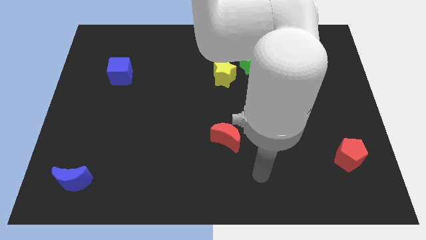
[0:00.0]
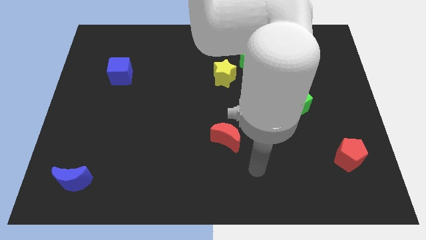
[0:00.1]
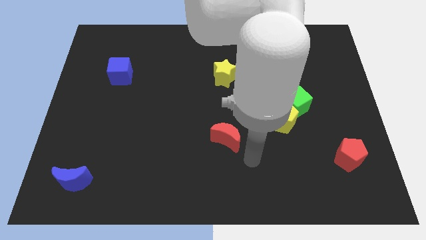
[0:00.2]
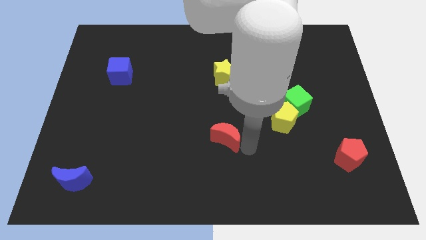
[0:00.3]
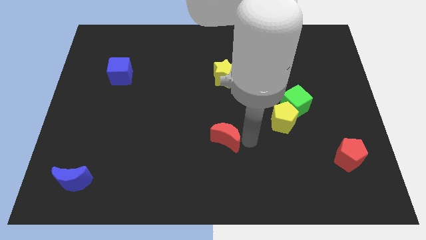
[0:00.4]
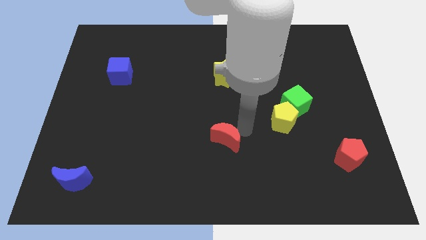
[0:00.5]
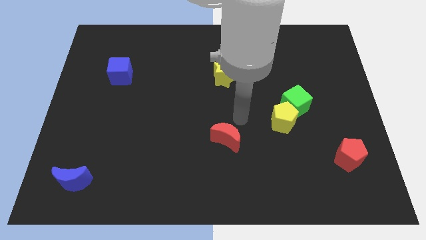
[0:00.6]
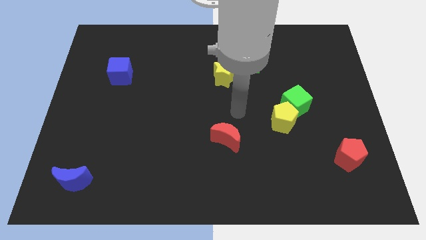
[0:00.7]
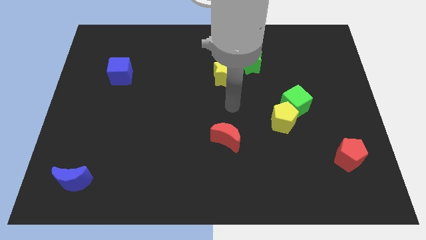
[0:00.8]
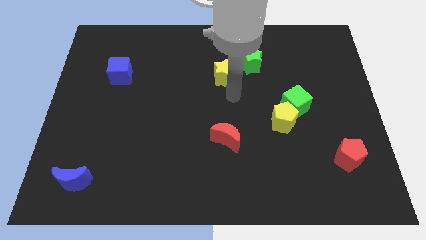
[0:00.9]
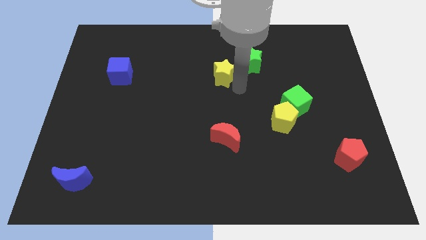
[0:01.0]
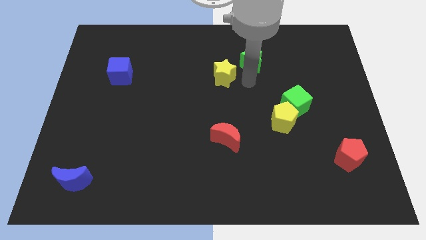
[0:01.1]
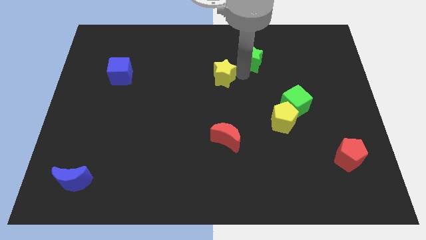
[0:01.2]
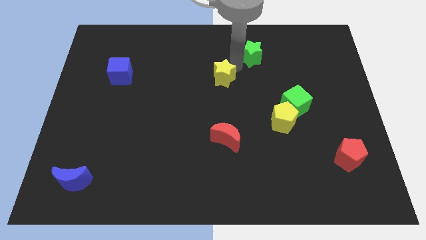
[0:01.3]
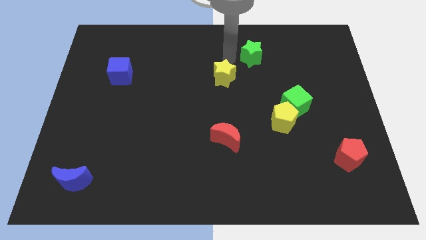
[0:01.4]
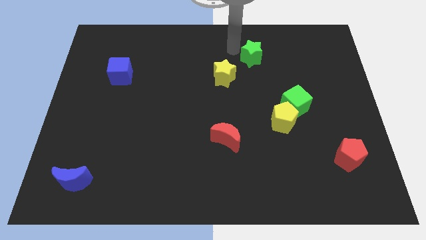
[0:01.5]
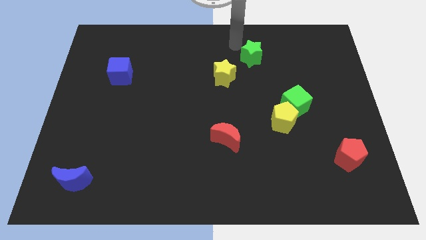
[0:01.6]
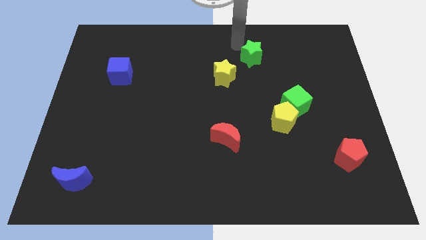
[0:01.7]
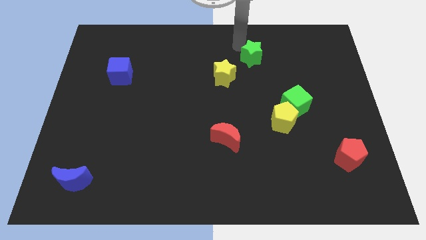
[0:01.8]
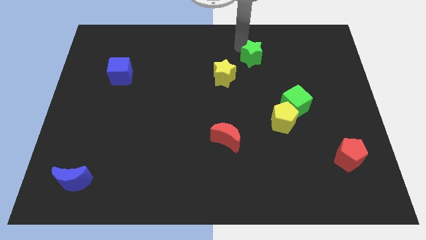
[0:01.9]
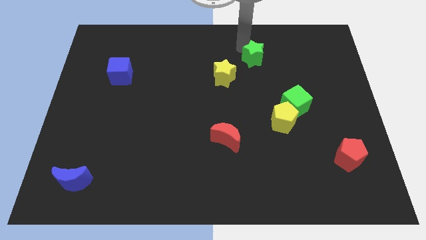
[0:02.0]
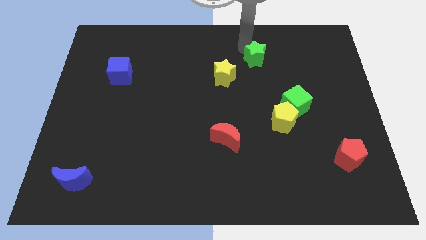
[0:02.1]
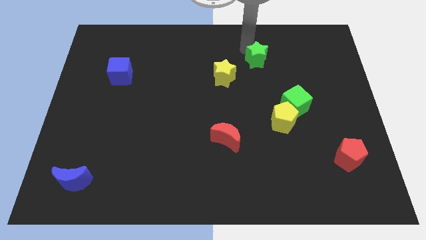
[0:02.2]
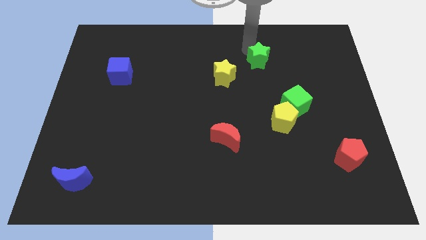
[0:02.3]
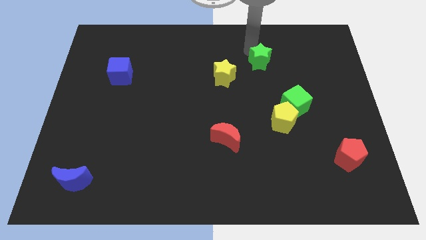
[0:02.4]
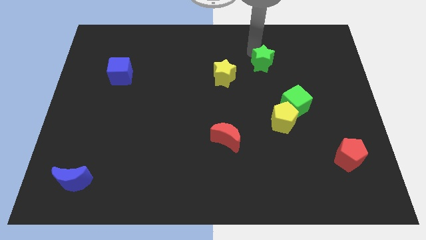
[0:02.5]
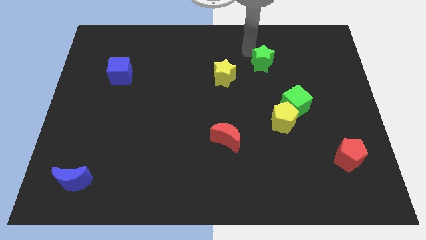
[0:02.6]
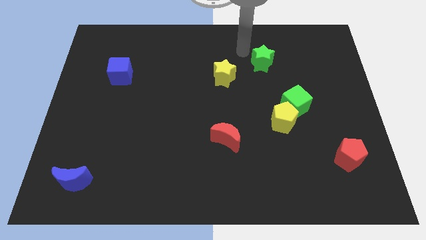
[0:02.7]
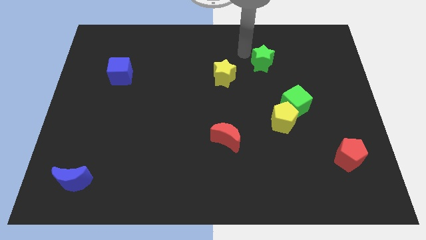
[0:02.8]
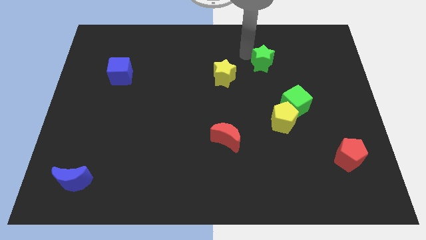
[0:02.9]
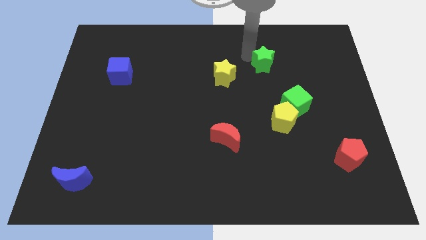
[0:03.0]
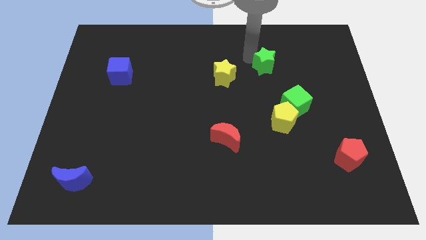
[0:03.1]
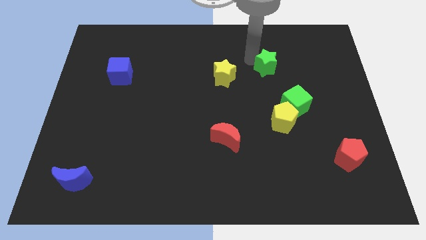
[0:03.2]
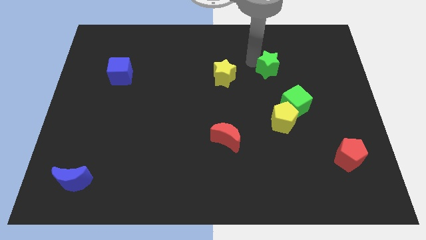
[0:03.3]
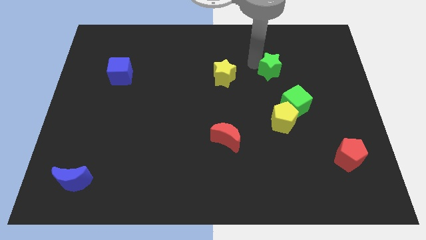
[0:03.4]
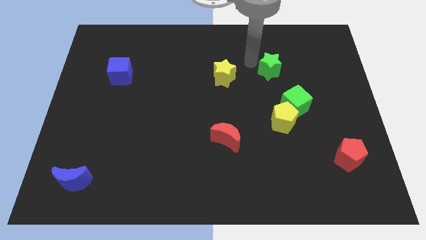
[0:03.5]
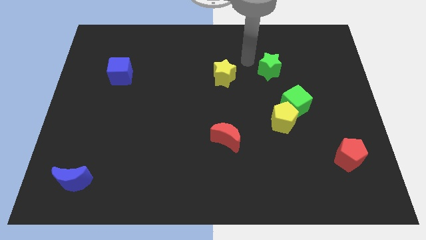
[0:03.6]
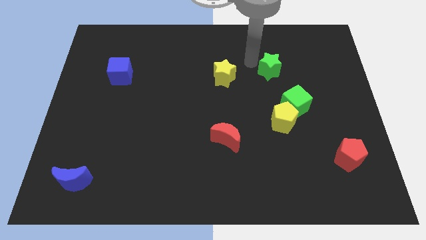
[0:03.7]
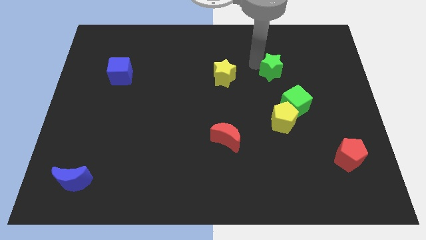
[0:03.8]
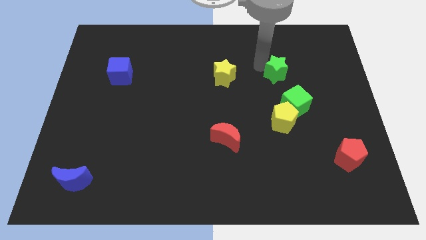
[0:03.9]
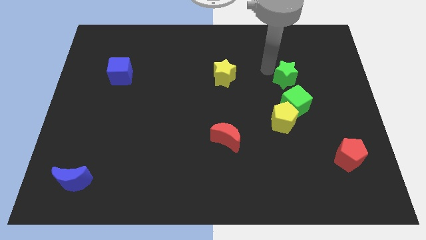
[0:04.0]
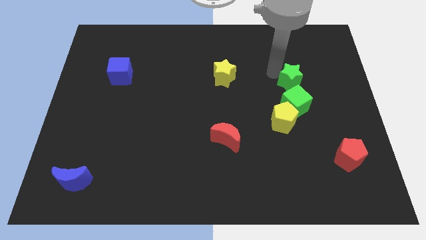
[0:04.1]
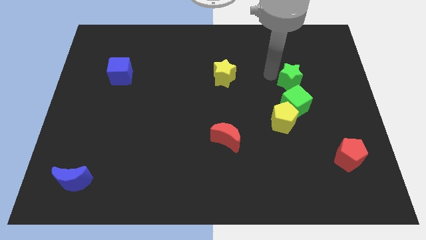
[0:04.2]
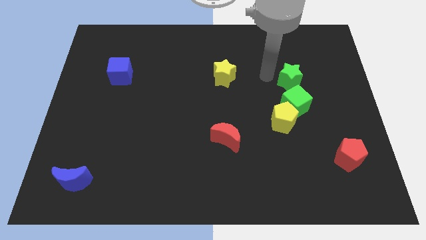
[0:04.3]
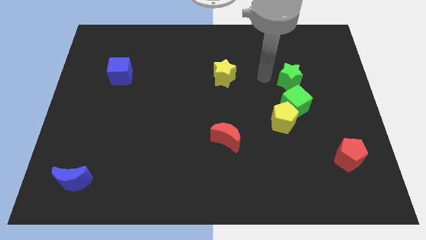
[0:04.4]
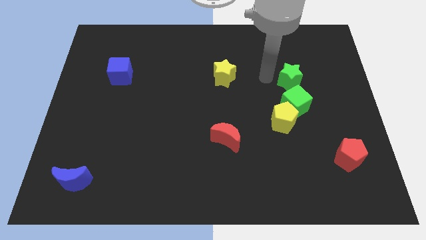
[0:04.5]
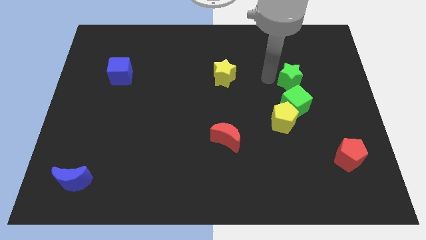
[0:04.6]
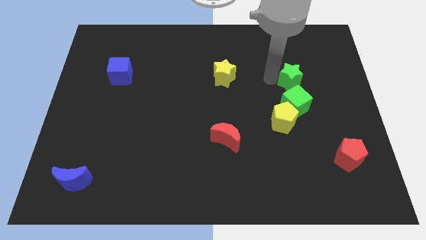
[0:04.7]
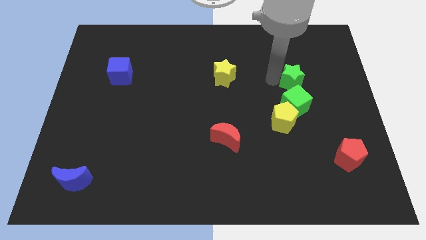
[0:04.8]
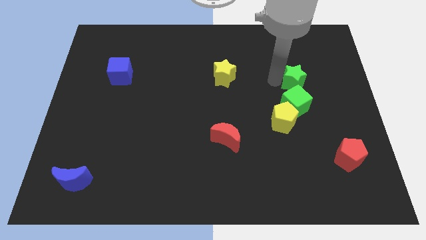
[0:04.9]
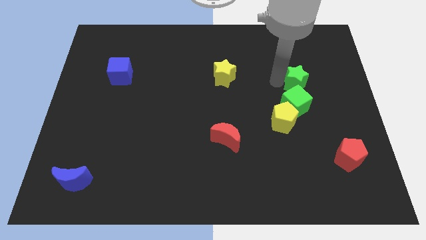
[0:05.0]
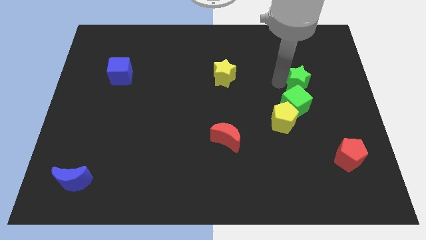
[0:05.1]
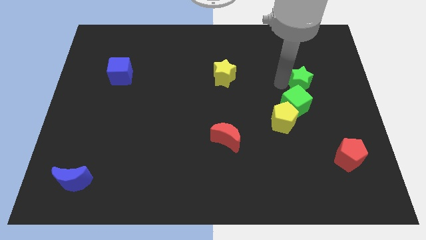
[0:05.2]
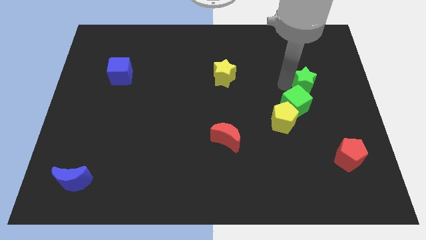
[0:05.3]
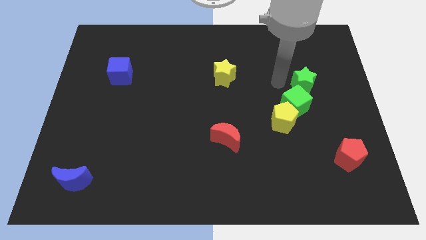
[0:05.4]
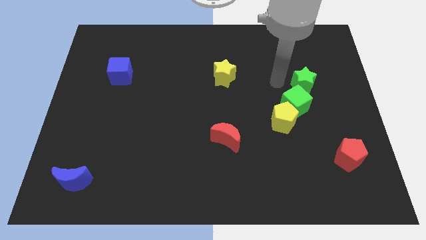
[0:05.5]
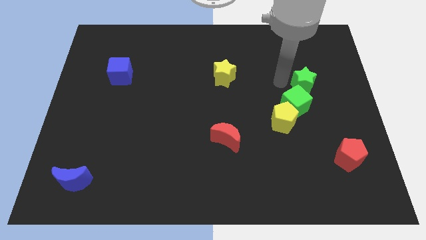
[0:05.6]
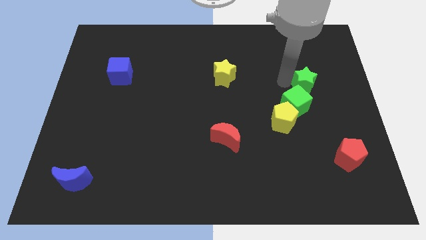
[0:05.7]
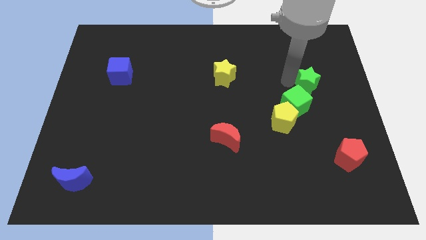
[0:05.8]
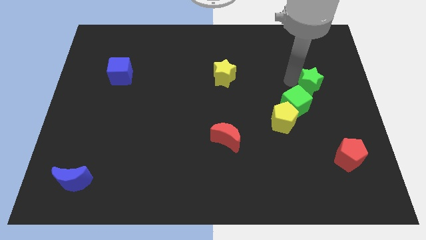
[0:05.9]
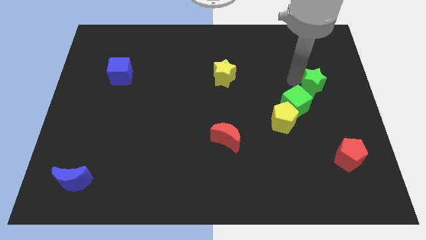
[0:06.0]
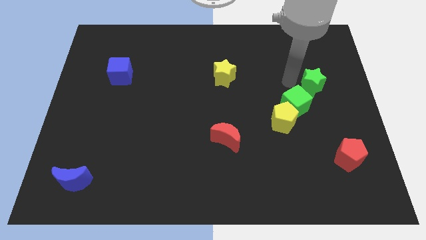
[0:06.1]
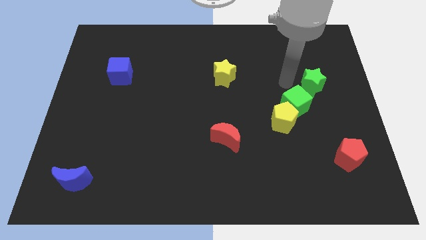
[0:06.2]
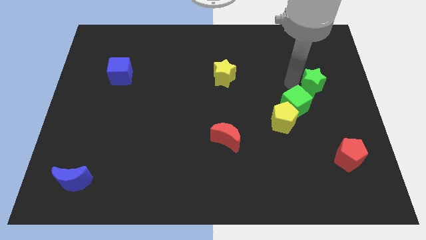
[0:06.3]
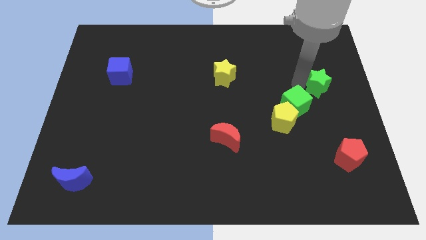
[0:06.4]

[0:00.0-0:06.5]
push the green star to the right side
